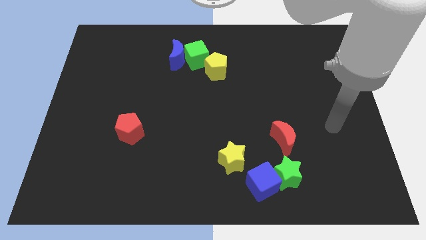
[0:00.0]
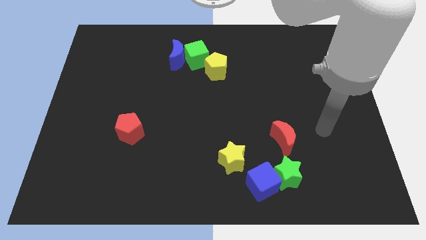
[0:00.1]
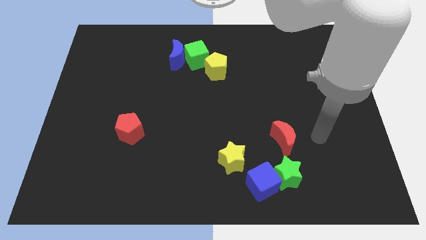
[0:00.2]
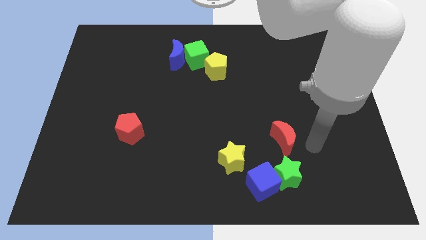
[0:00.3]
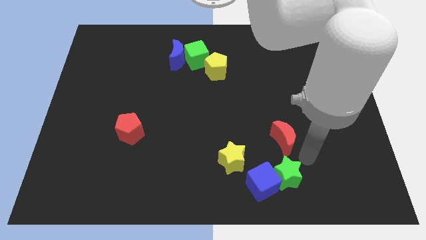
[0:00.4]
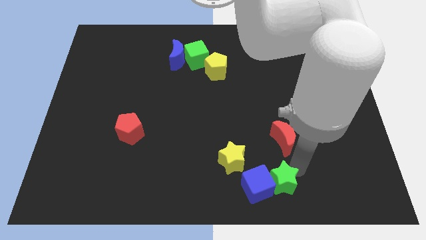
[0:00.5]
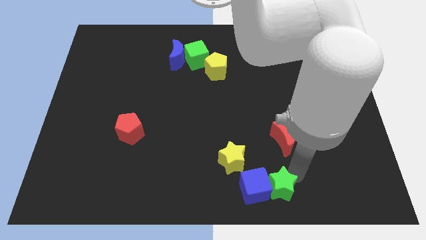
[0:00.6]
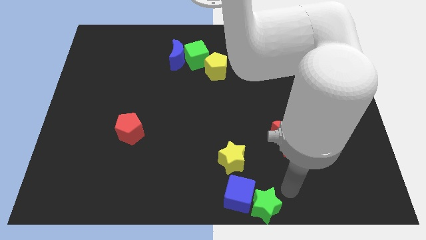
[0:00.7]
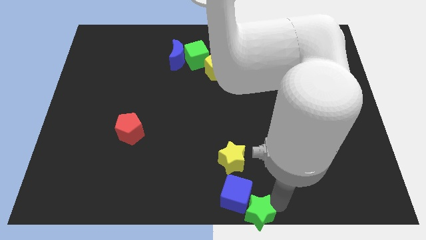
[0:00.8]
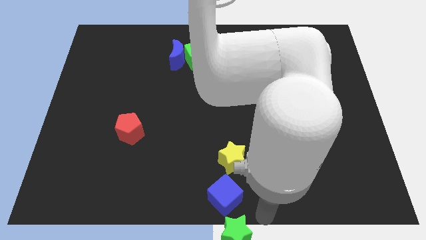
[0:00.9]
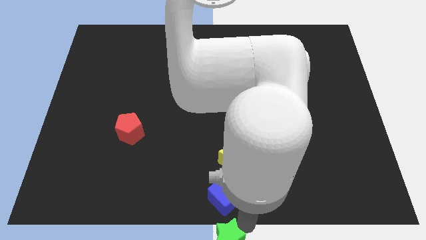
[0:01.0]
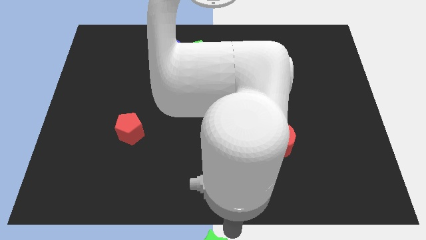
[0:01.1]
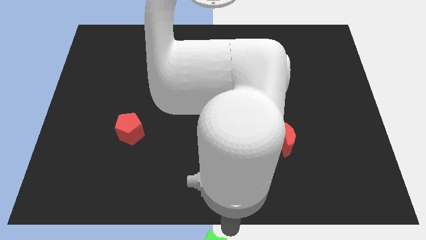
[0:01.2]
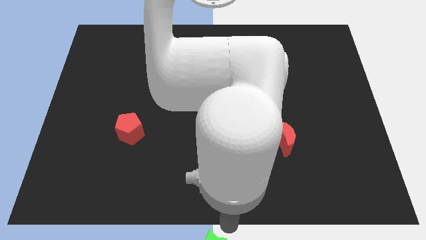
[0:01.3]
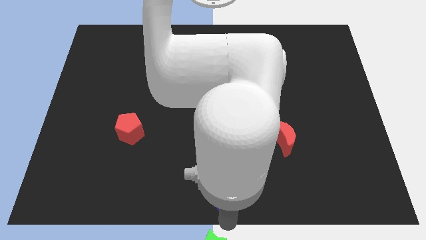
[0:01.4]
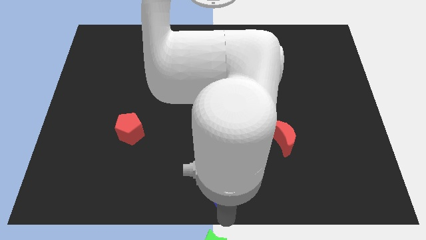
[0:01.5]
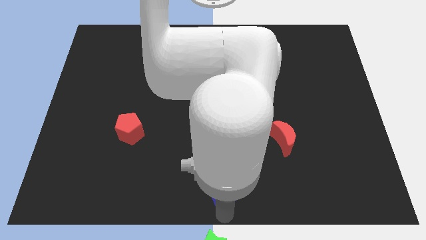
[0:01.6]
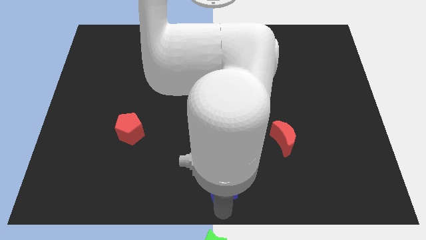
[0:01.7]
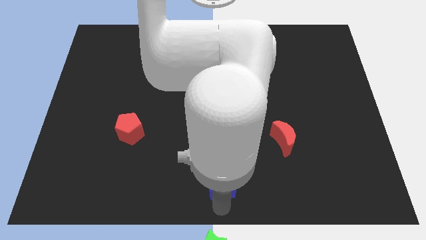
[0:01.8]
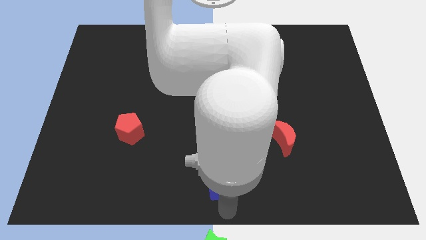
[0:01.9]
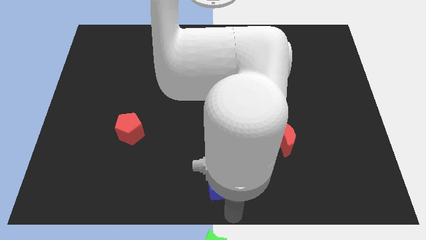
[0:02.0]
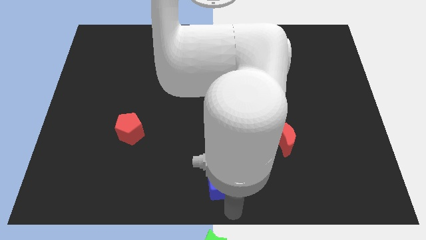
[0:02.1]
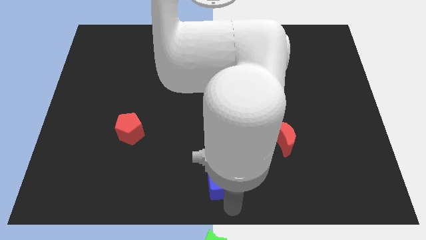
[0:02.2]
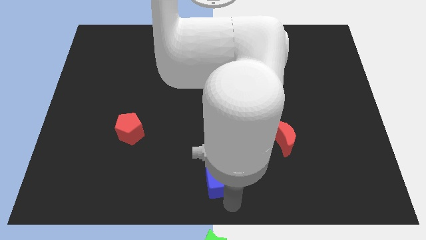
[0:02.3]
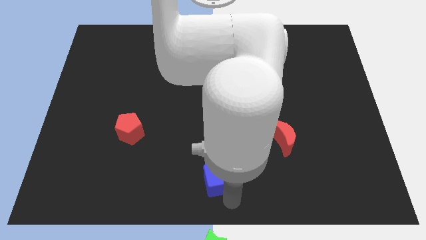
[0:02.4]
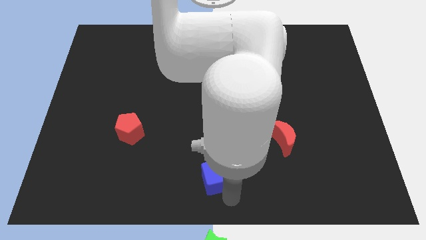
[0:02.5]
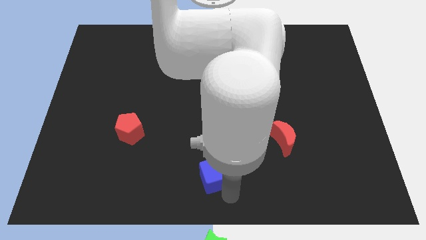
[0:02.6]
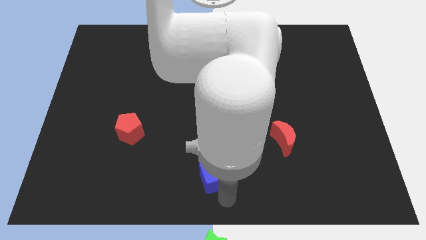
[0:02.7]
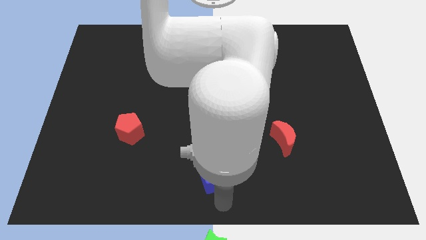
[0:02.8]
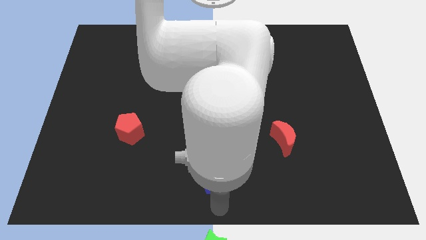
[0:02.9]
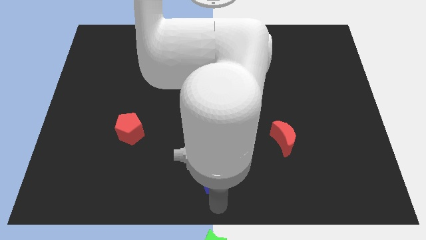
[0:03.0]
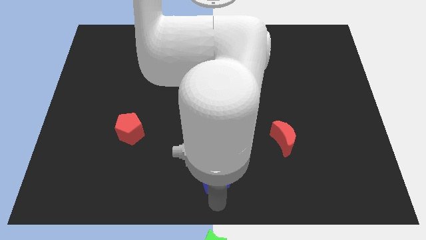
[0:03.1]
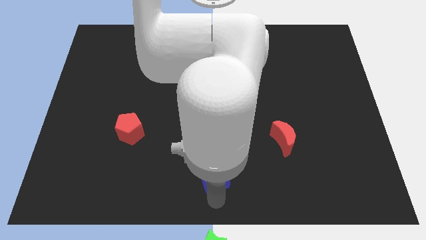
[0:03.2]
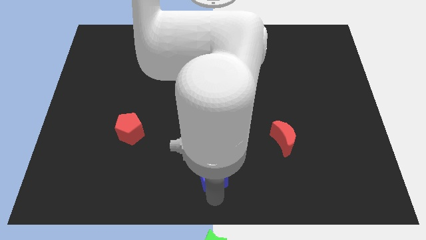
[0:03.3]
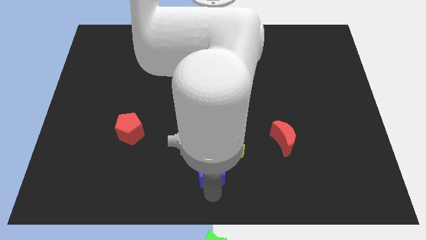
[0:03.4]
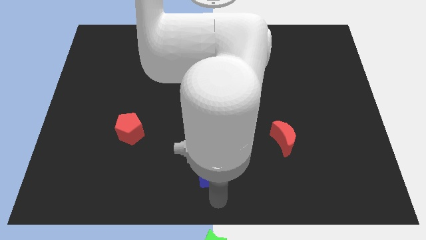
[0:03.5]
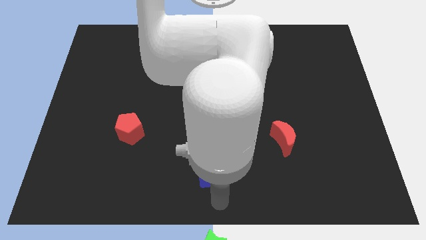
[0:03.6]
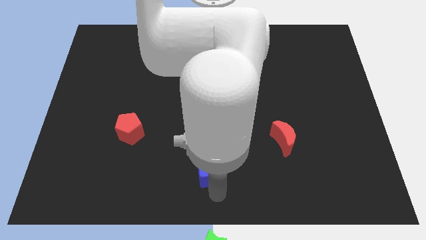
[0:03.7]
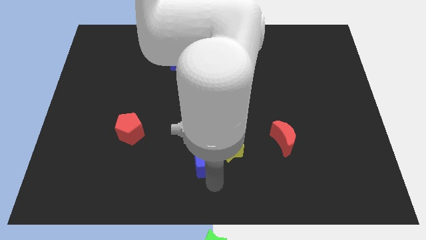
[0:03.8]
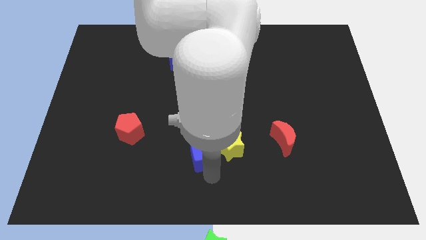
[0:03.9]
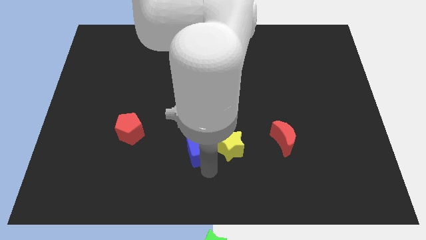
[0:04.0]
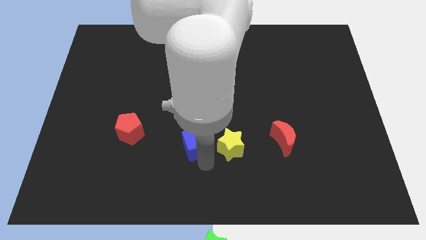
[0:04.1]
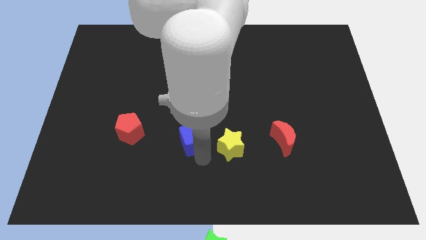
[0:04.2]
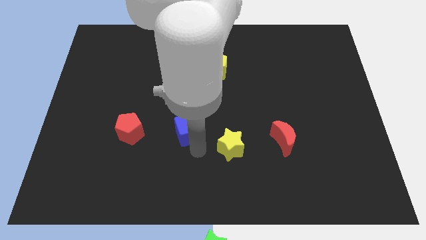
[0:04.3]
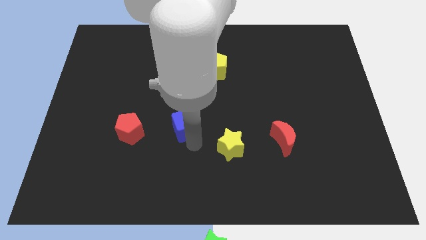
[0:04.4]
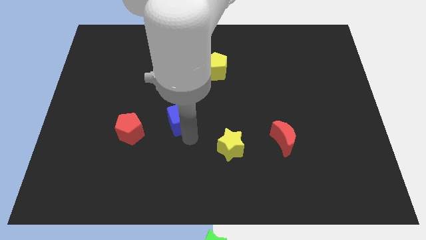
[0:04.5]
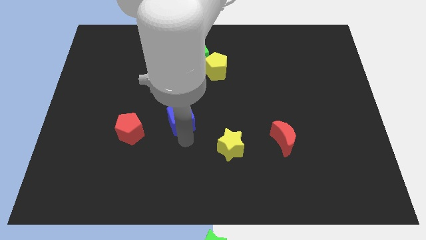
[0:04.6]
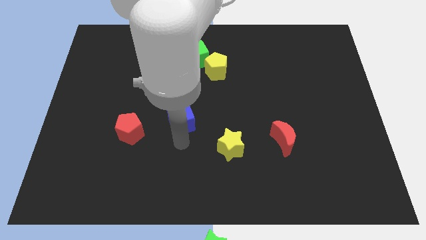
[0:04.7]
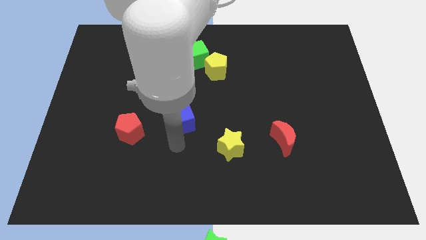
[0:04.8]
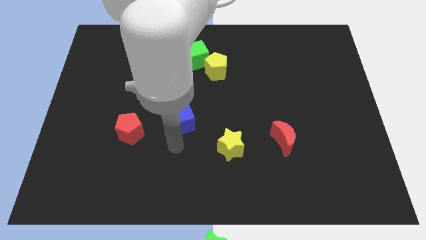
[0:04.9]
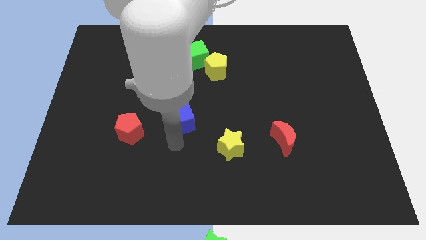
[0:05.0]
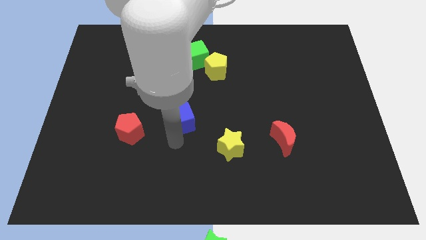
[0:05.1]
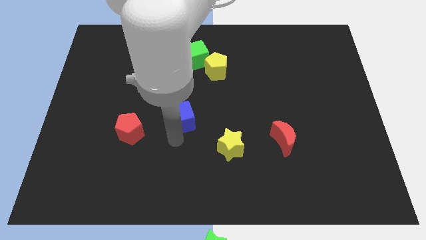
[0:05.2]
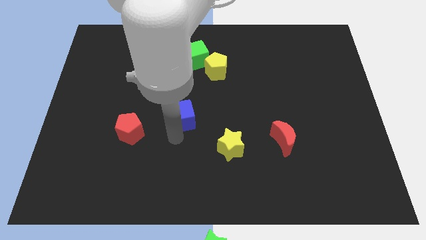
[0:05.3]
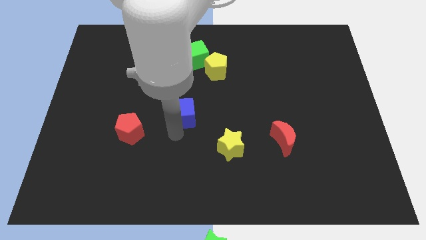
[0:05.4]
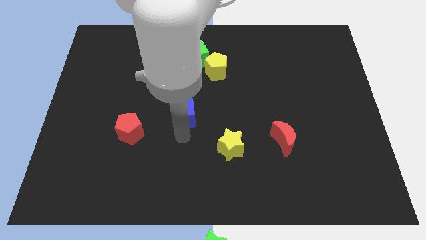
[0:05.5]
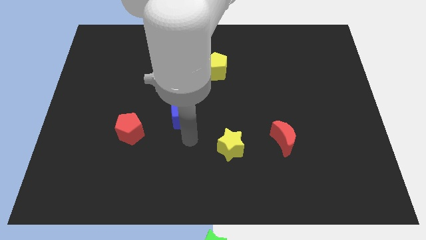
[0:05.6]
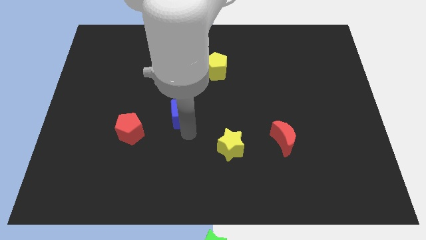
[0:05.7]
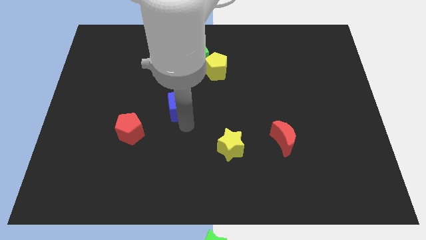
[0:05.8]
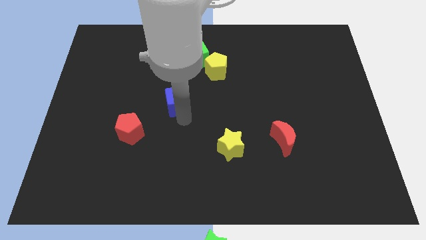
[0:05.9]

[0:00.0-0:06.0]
push the blue cube to the bottom of the blue moon
